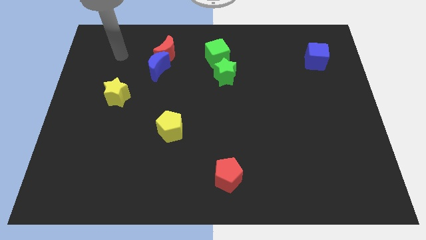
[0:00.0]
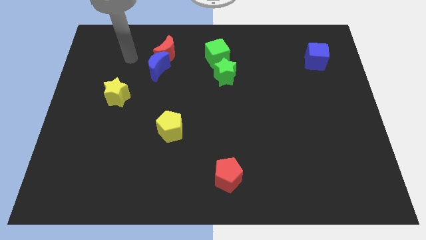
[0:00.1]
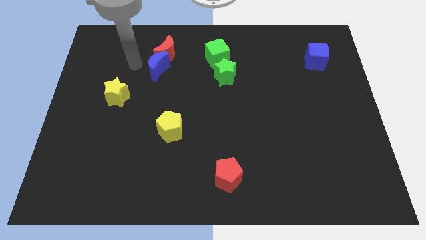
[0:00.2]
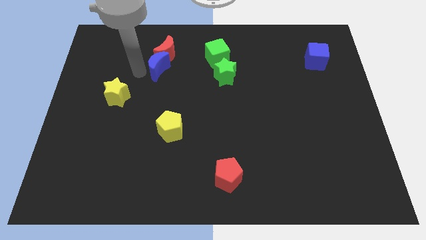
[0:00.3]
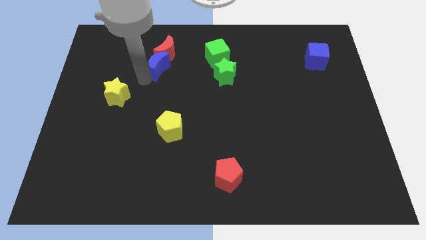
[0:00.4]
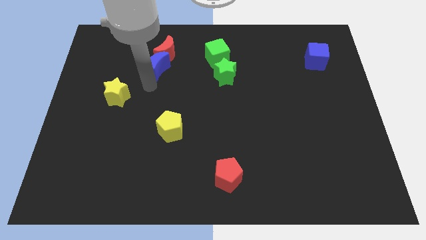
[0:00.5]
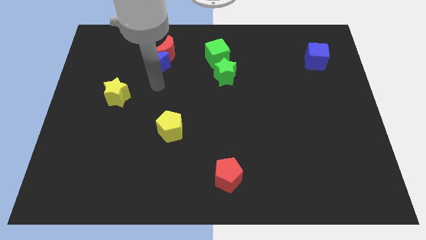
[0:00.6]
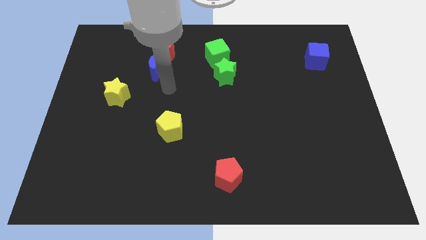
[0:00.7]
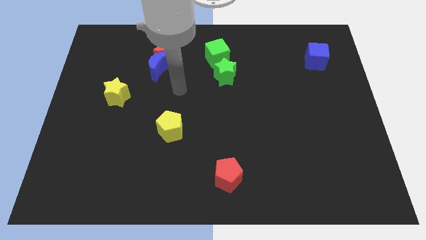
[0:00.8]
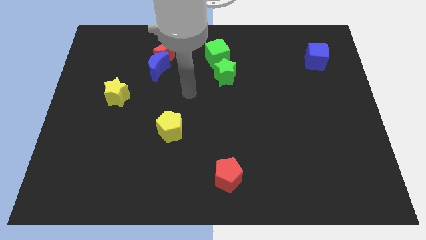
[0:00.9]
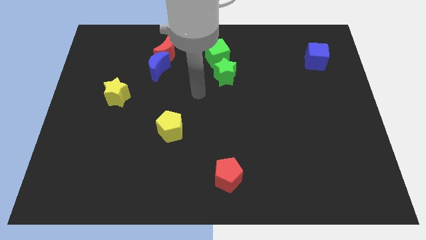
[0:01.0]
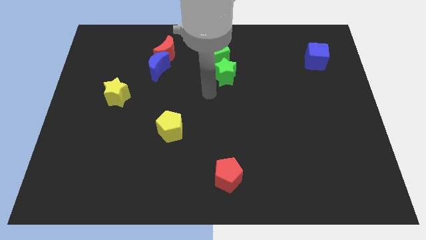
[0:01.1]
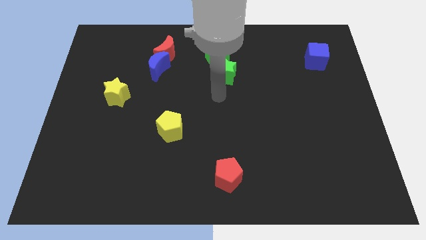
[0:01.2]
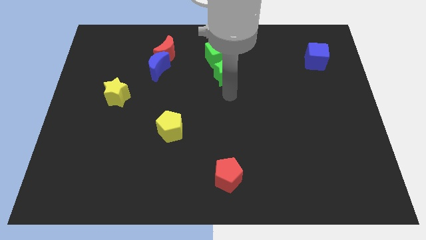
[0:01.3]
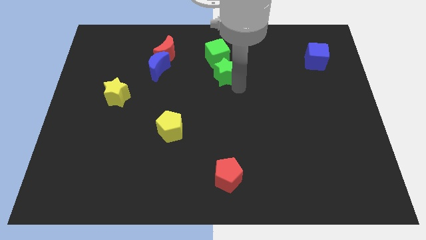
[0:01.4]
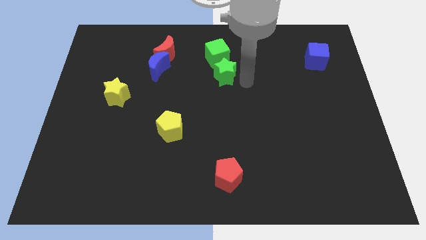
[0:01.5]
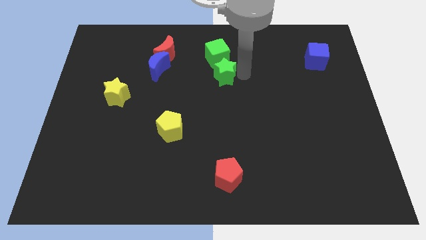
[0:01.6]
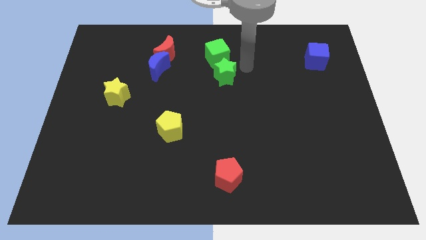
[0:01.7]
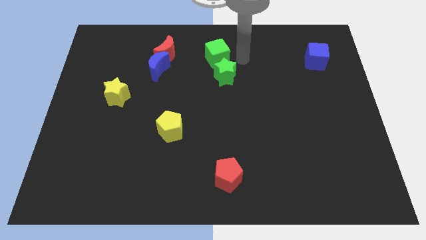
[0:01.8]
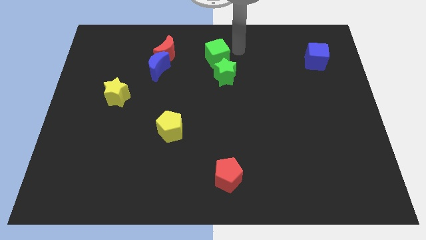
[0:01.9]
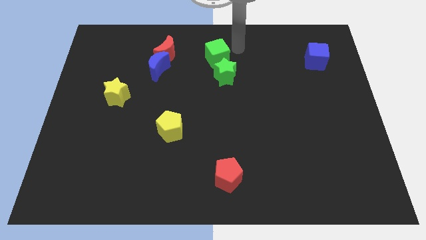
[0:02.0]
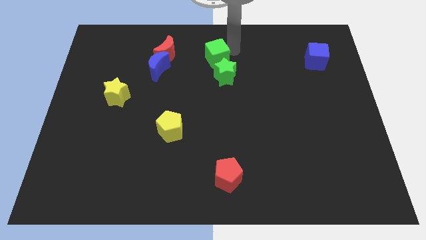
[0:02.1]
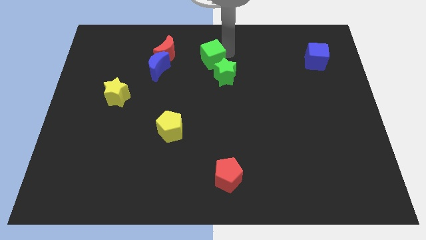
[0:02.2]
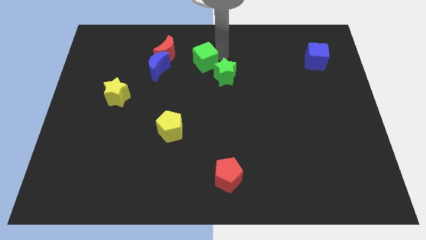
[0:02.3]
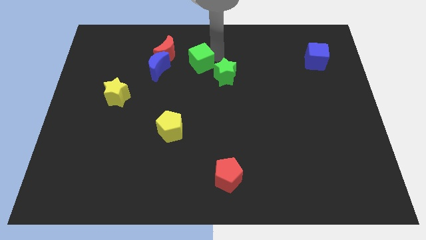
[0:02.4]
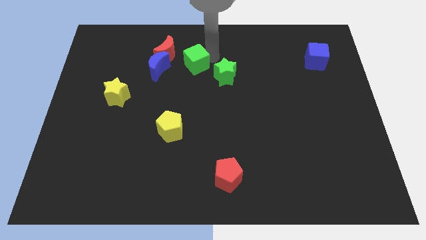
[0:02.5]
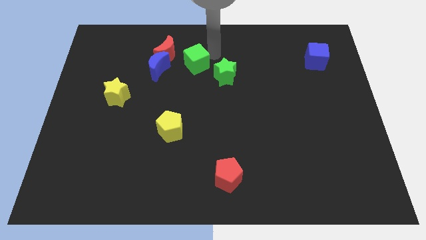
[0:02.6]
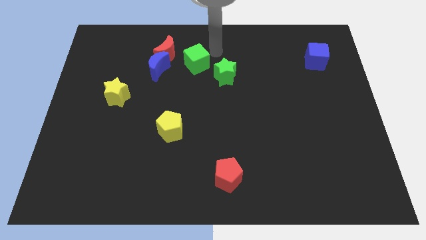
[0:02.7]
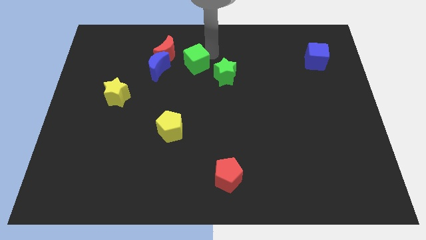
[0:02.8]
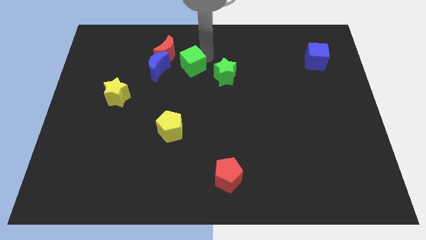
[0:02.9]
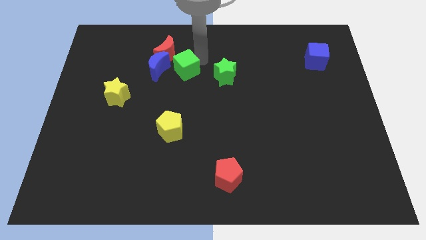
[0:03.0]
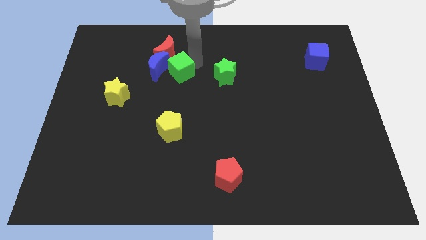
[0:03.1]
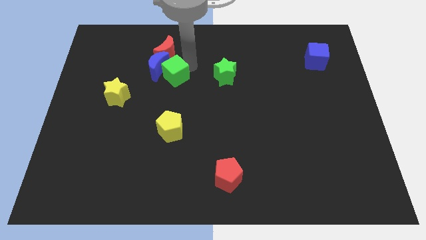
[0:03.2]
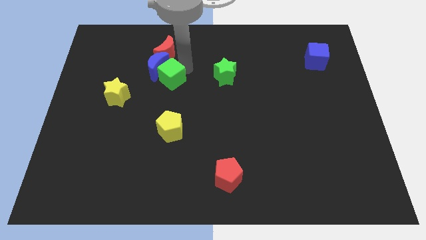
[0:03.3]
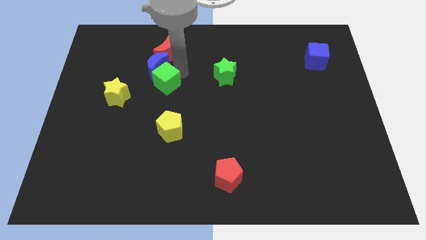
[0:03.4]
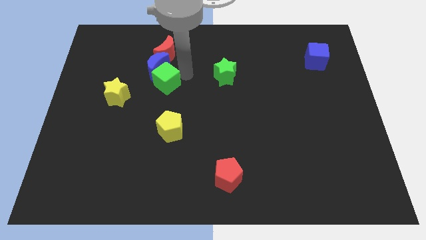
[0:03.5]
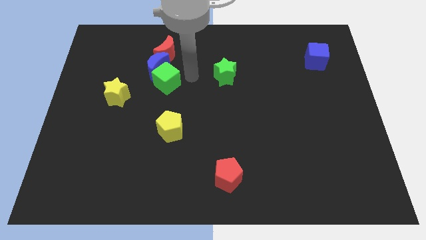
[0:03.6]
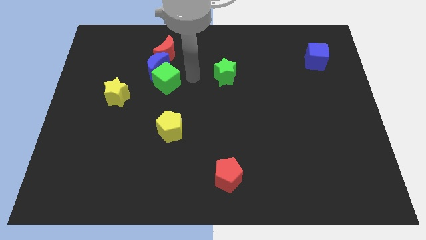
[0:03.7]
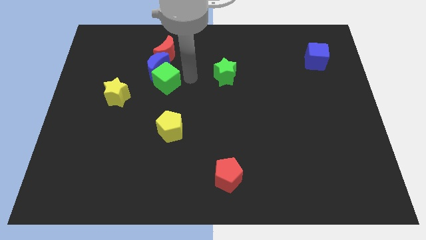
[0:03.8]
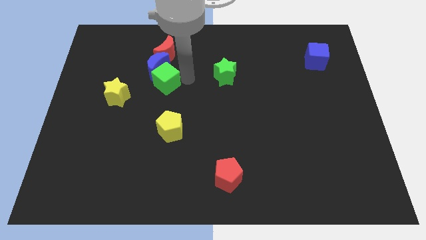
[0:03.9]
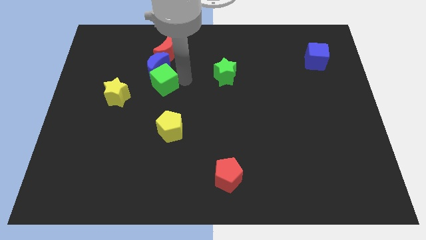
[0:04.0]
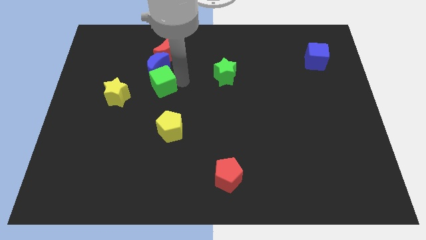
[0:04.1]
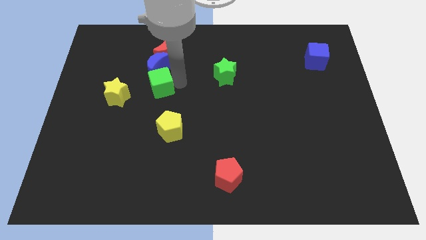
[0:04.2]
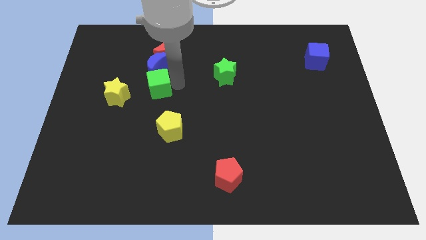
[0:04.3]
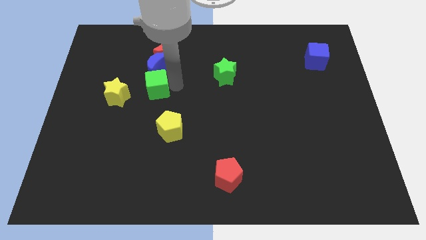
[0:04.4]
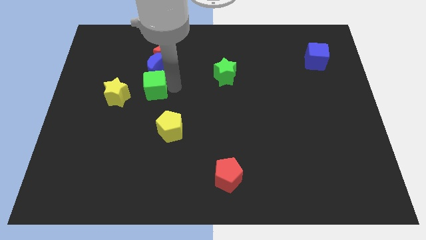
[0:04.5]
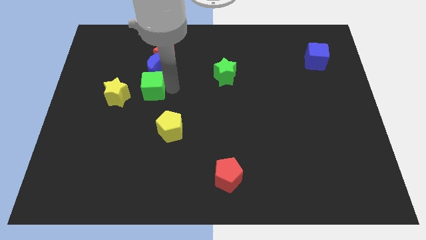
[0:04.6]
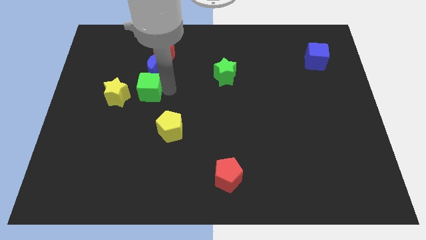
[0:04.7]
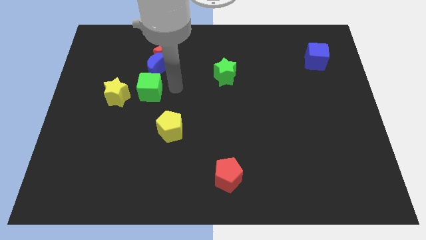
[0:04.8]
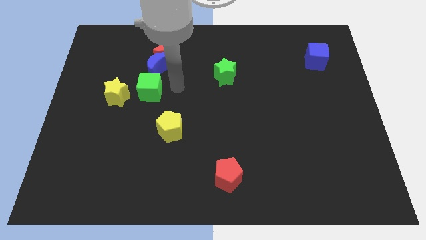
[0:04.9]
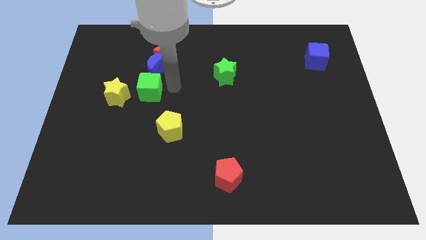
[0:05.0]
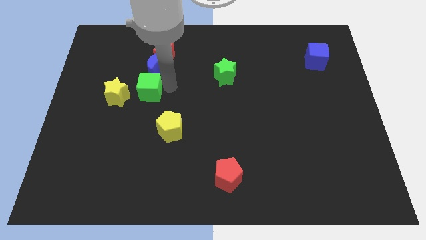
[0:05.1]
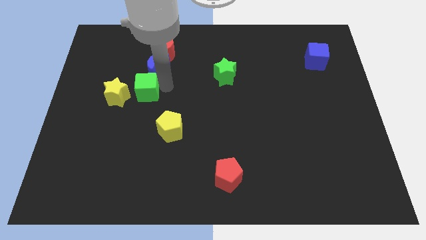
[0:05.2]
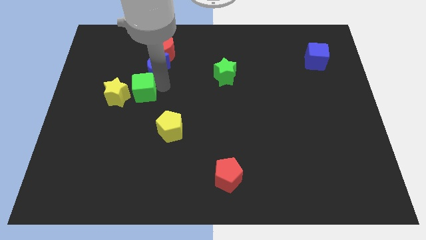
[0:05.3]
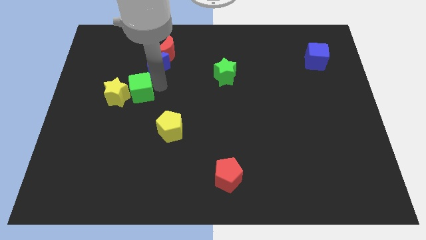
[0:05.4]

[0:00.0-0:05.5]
put the green cube towards the yellow star

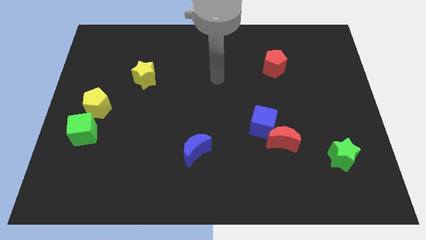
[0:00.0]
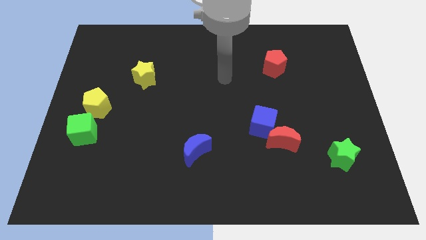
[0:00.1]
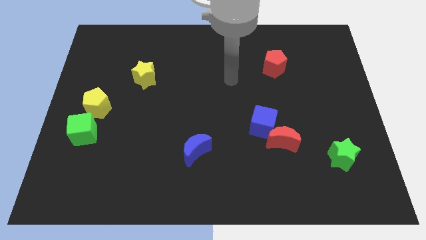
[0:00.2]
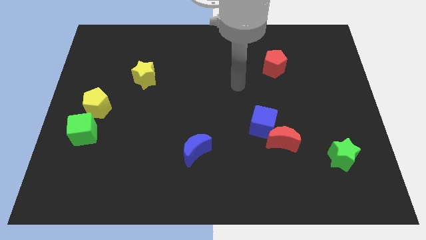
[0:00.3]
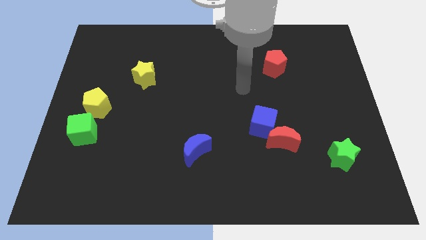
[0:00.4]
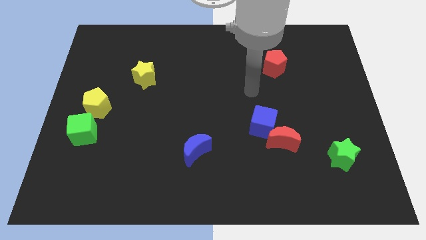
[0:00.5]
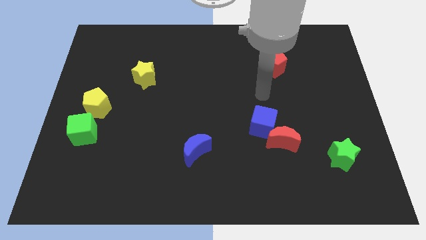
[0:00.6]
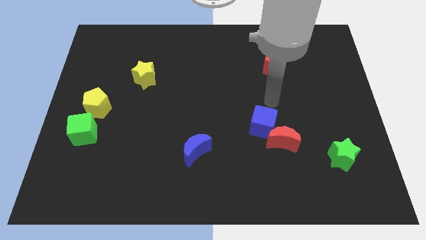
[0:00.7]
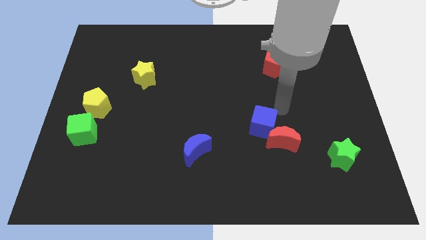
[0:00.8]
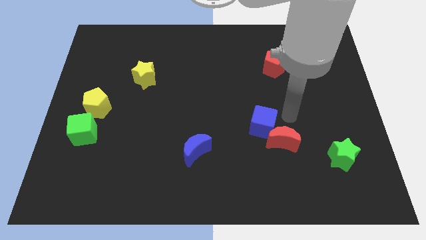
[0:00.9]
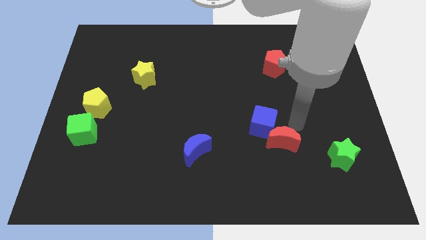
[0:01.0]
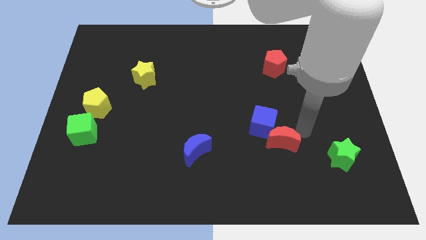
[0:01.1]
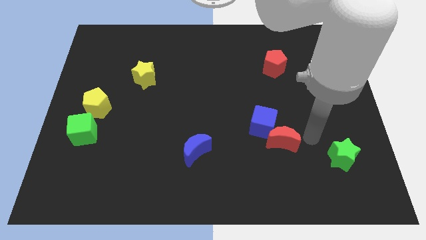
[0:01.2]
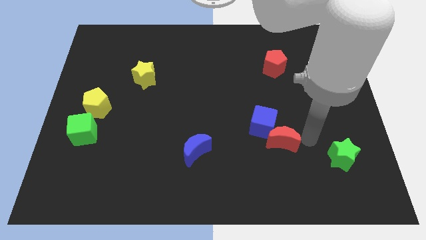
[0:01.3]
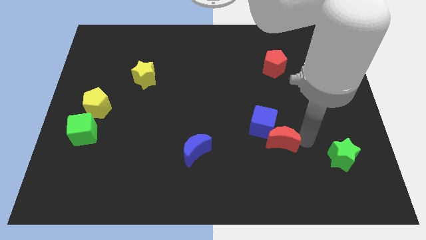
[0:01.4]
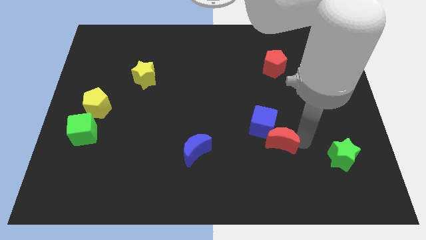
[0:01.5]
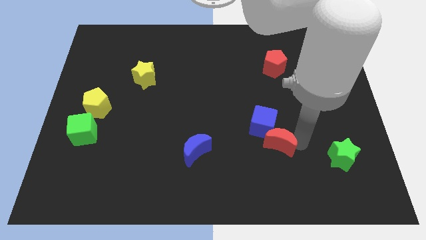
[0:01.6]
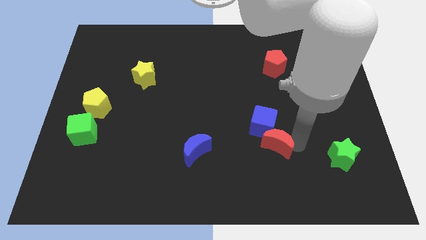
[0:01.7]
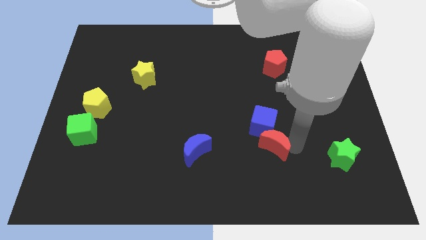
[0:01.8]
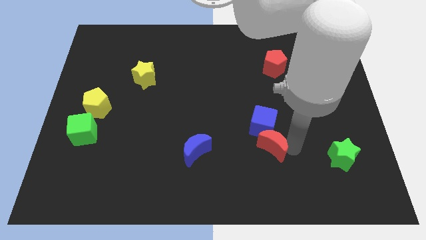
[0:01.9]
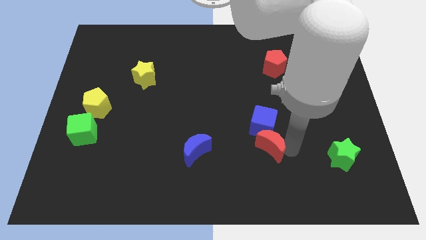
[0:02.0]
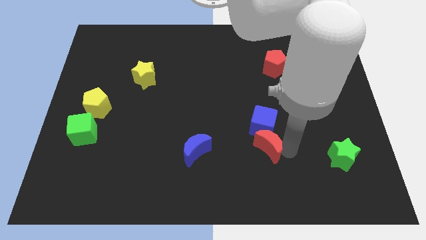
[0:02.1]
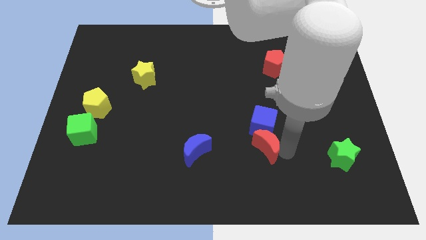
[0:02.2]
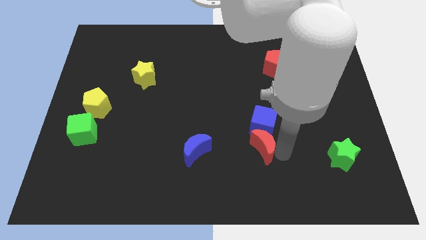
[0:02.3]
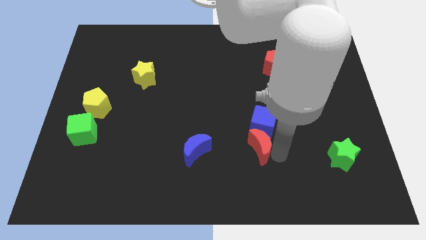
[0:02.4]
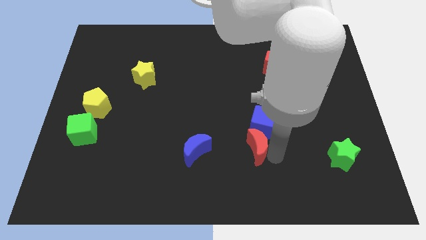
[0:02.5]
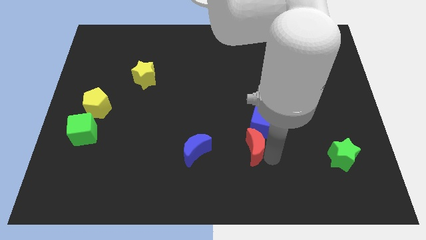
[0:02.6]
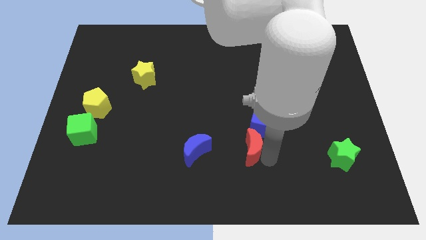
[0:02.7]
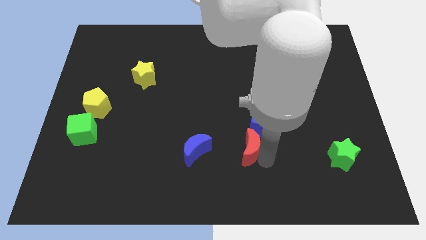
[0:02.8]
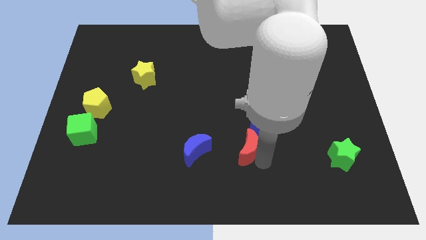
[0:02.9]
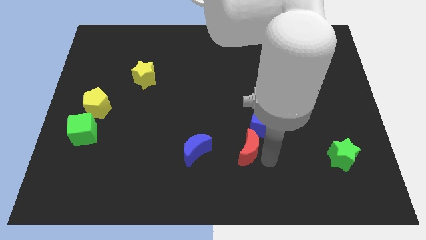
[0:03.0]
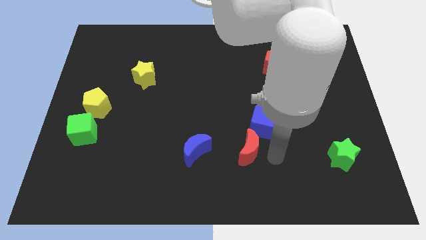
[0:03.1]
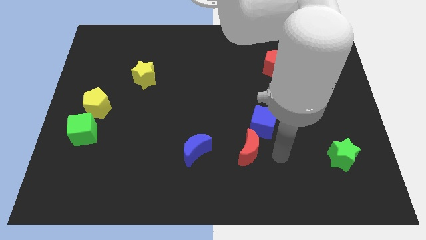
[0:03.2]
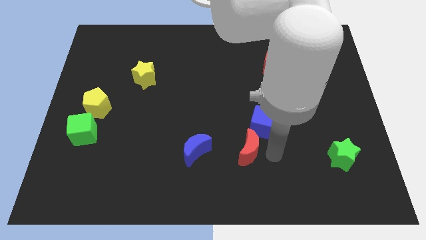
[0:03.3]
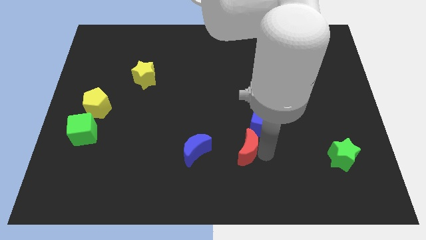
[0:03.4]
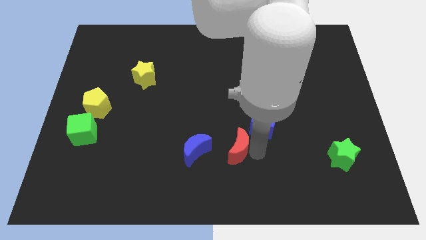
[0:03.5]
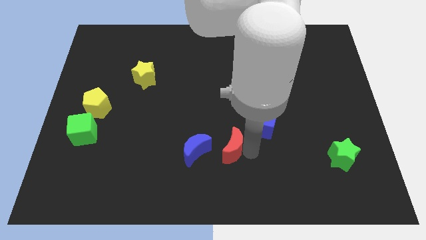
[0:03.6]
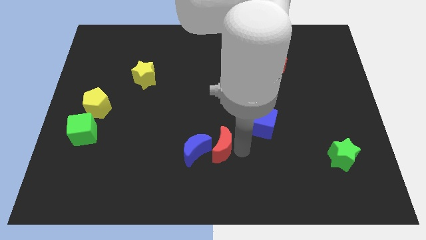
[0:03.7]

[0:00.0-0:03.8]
move the red moon to the blue moon
